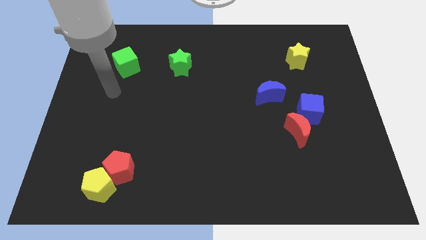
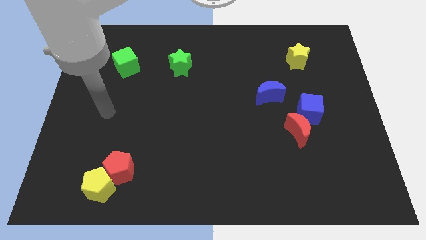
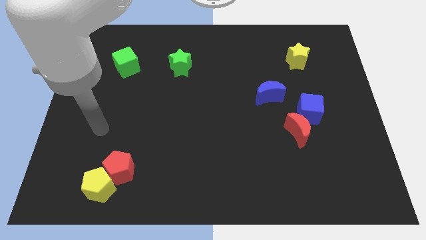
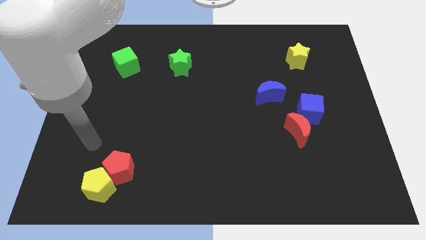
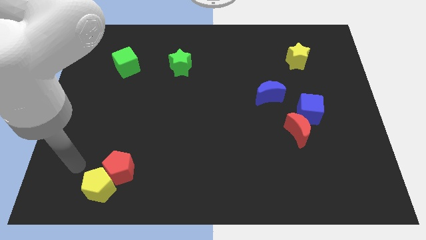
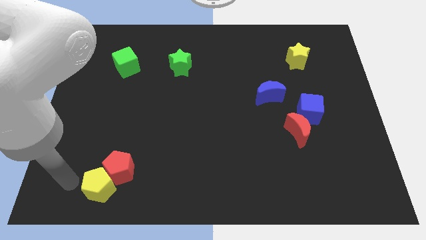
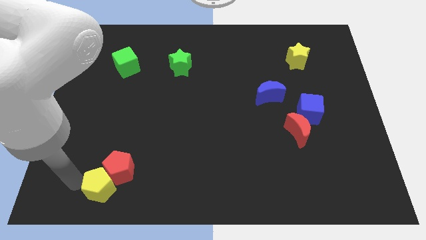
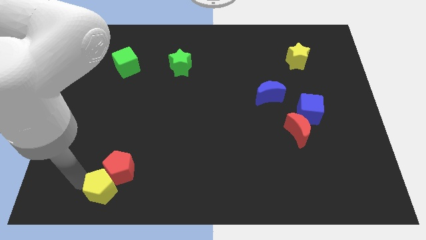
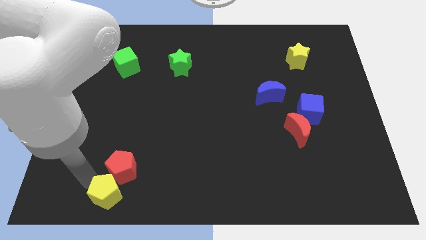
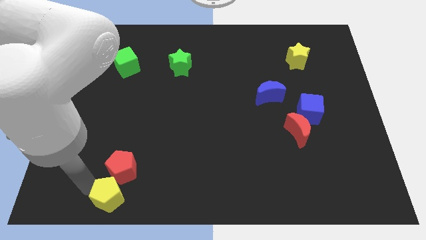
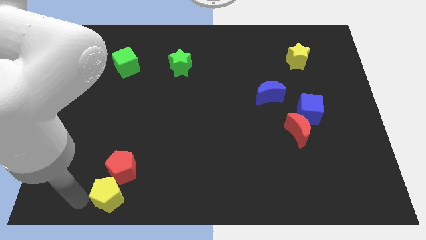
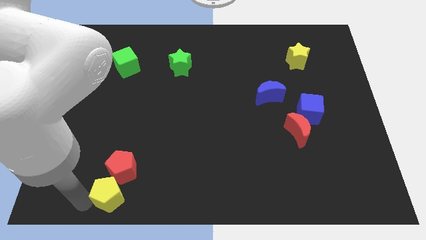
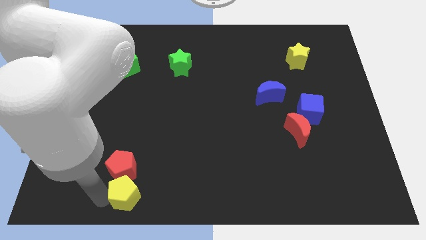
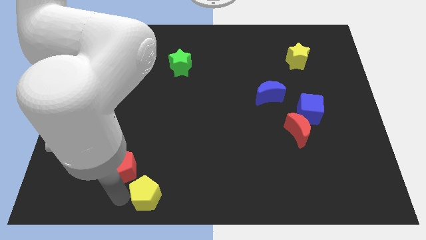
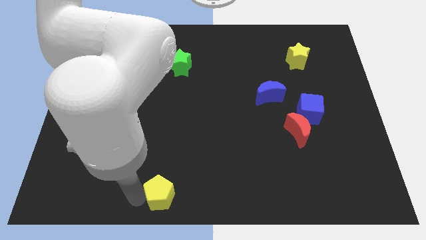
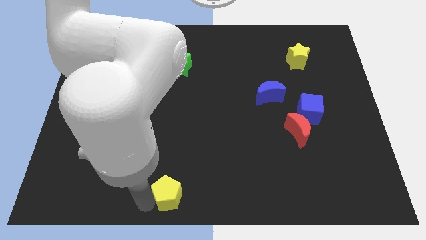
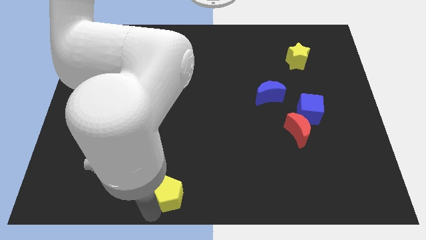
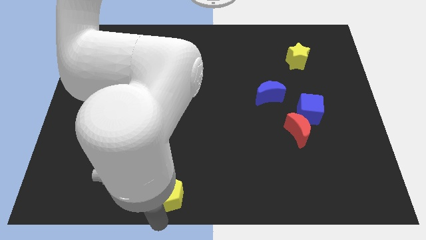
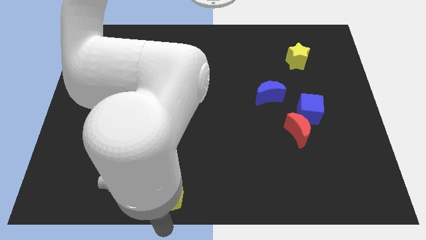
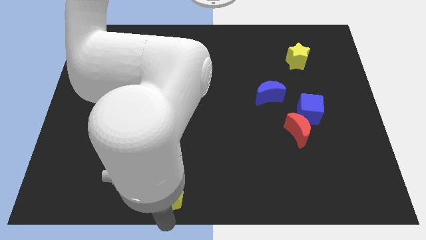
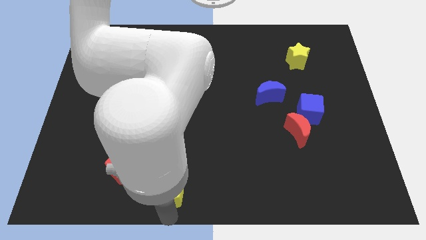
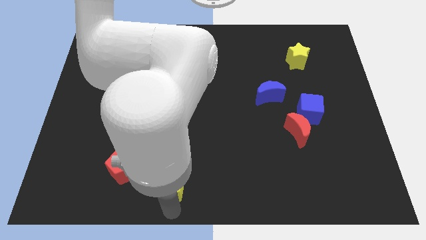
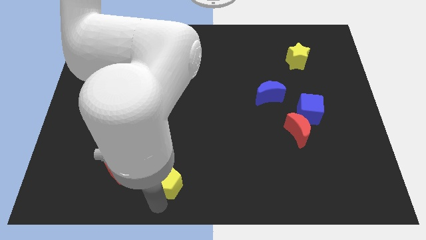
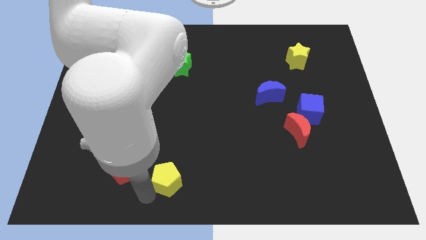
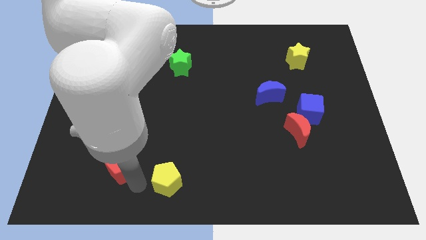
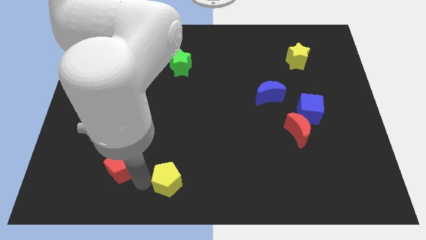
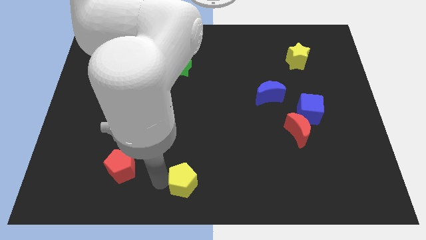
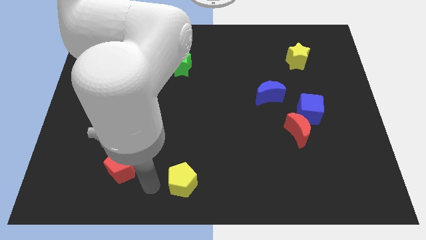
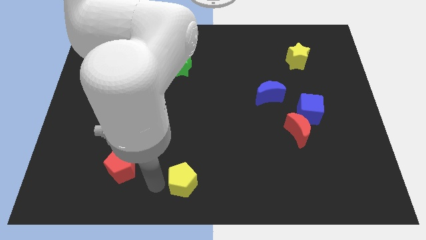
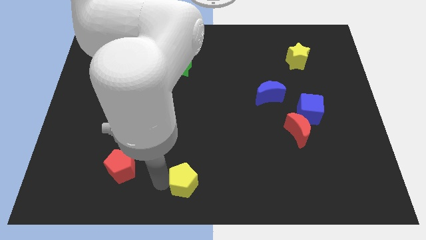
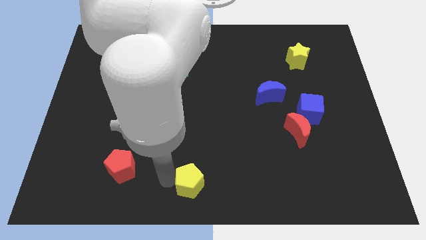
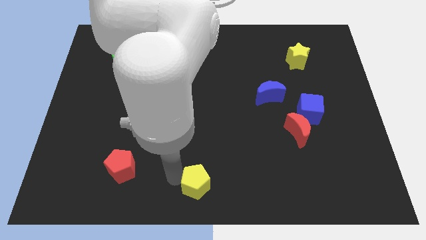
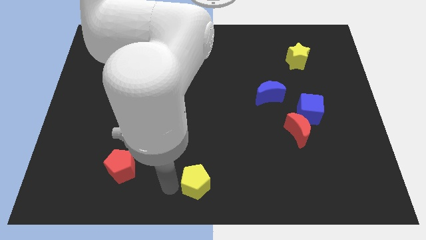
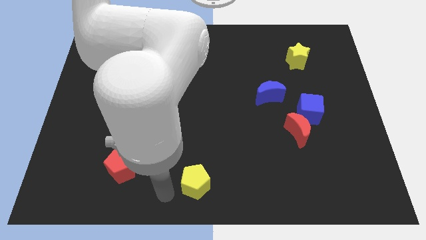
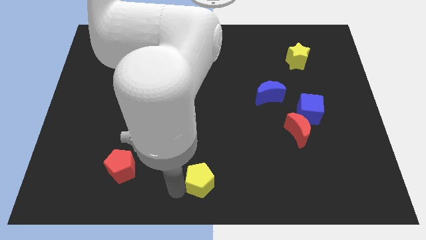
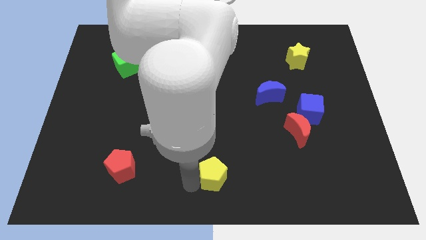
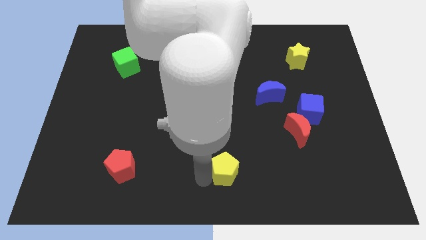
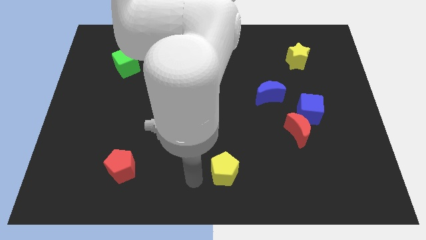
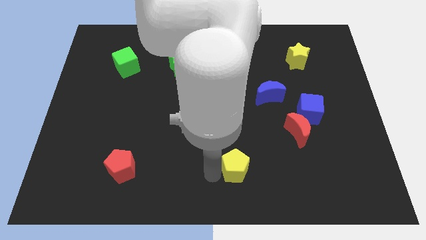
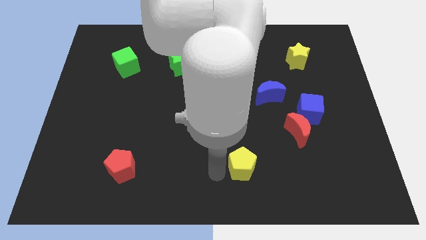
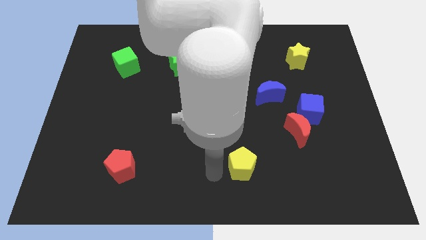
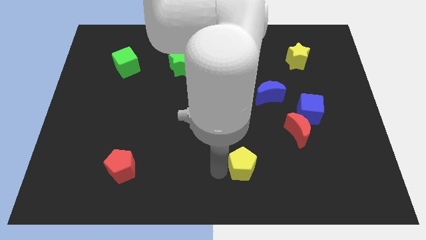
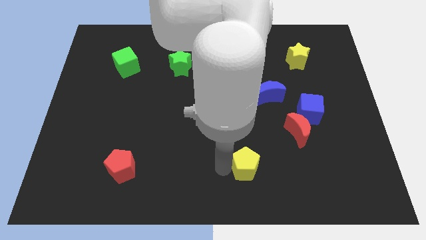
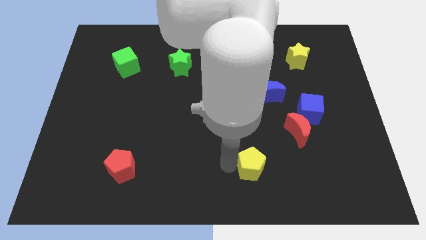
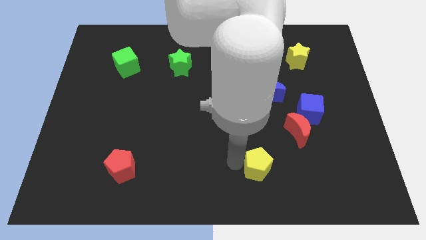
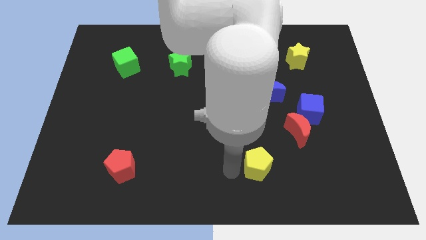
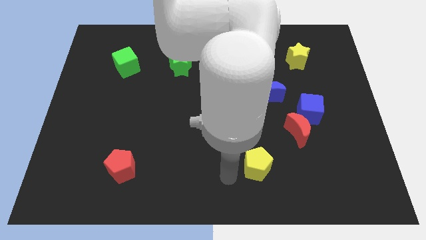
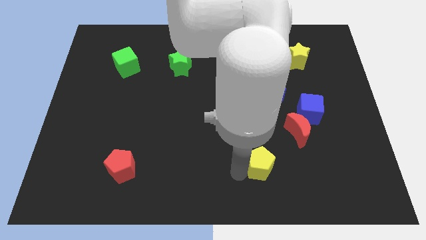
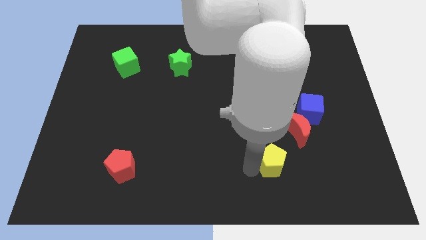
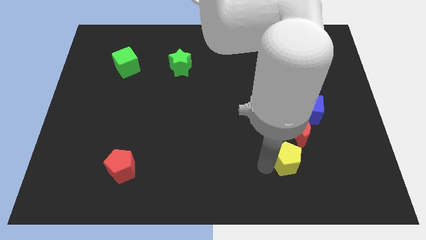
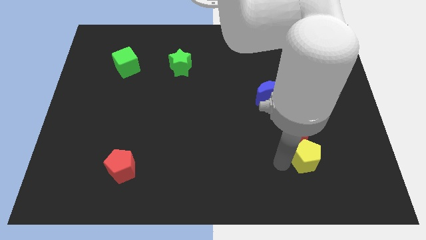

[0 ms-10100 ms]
move the yellow pentagon to the bottom right of the red moon

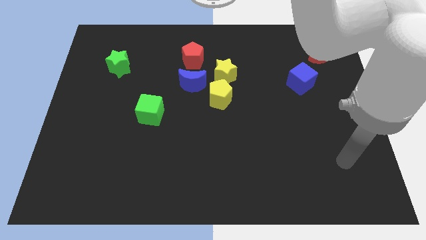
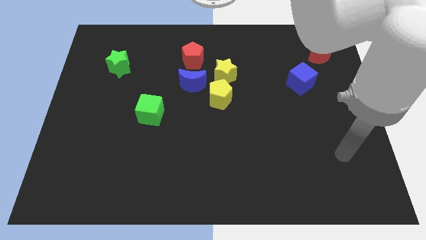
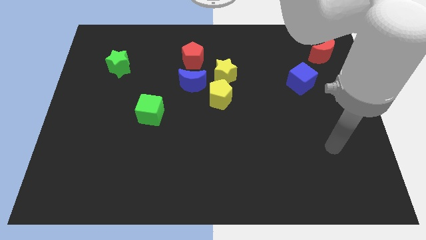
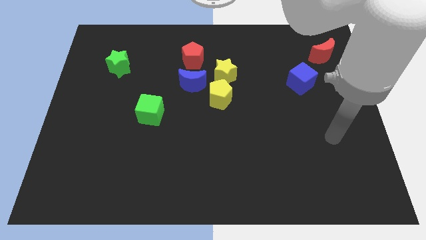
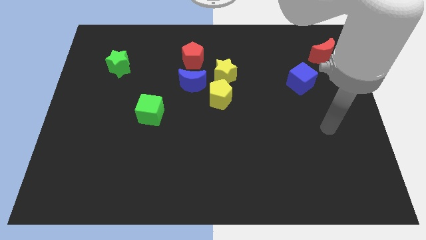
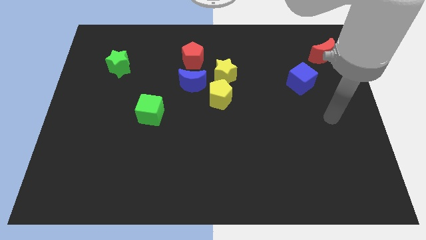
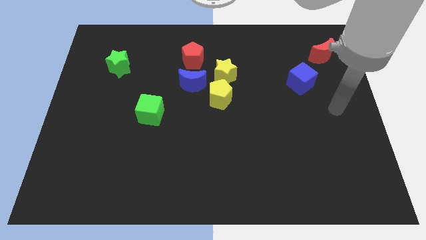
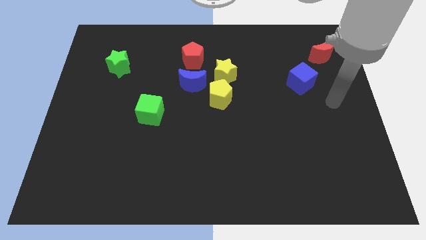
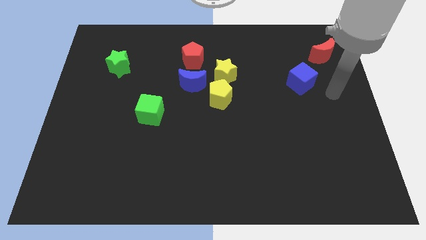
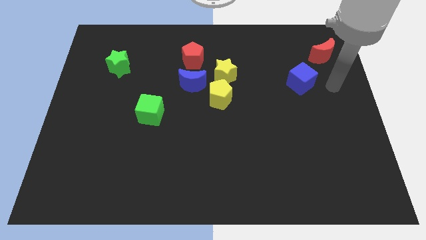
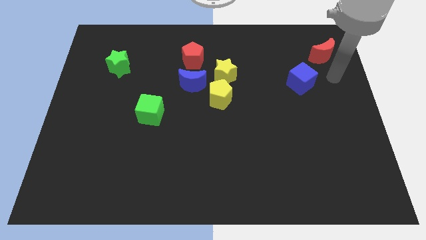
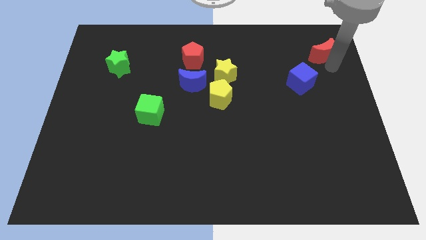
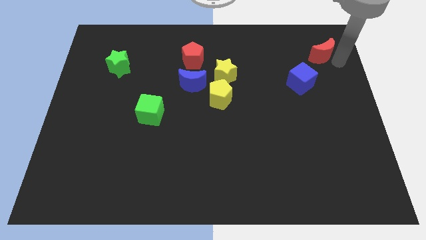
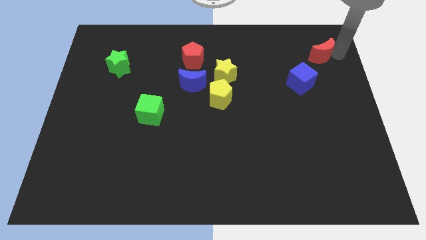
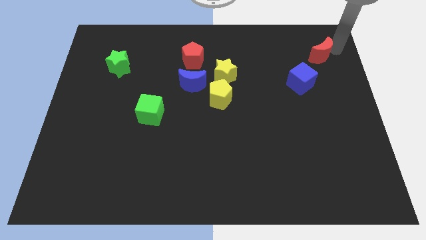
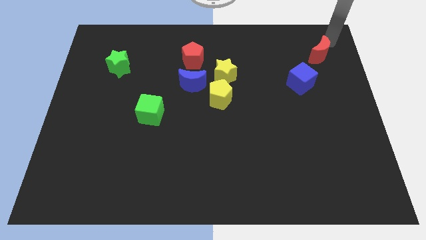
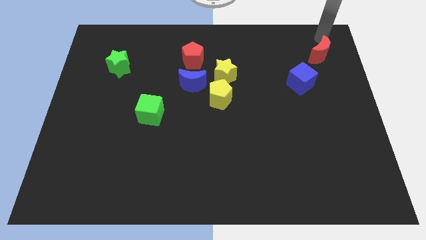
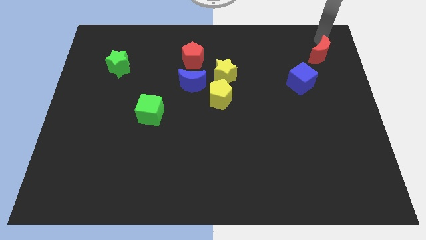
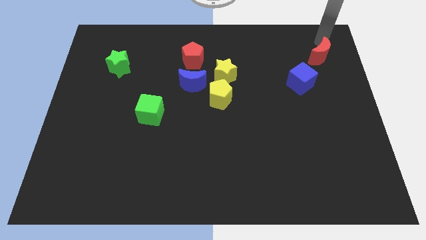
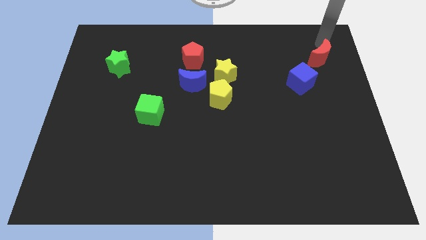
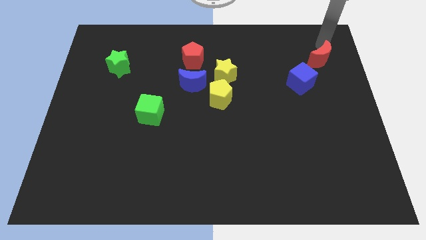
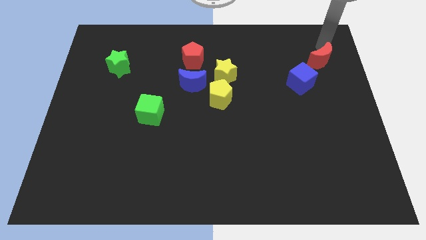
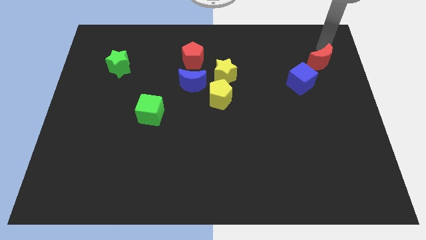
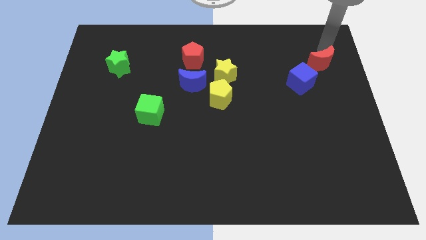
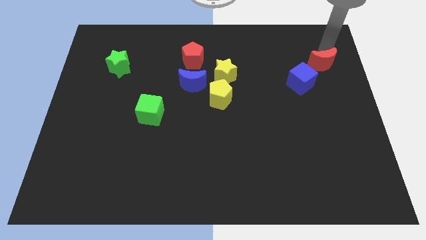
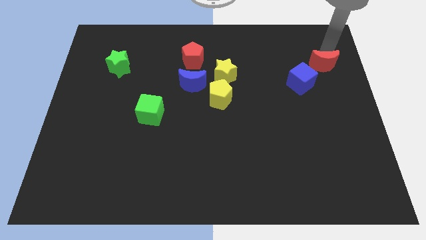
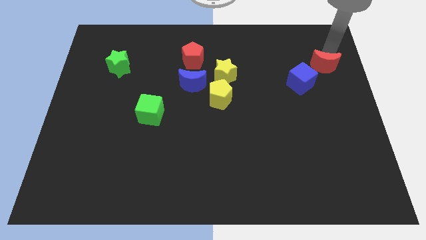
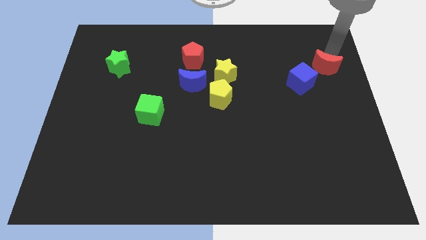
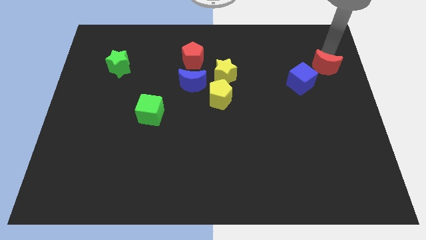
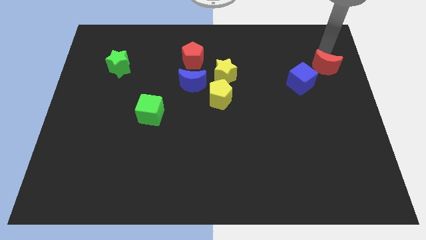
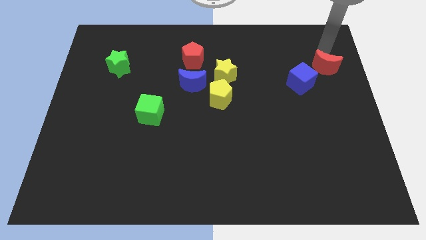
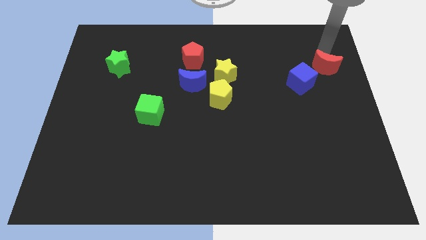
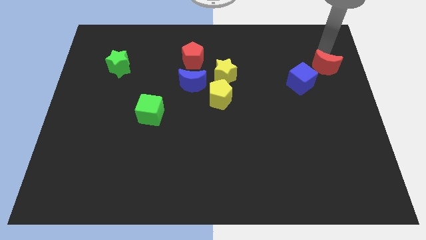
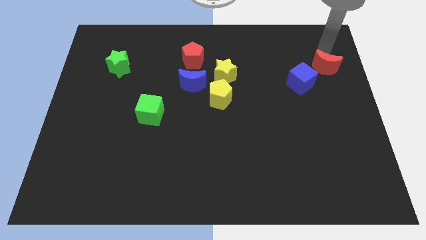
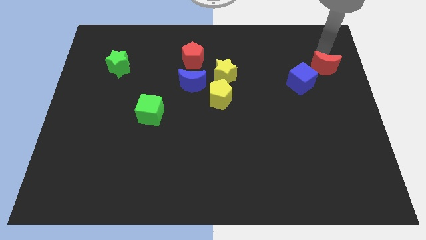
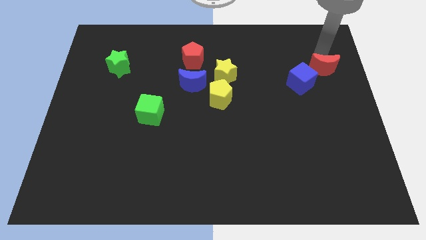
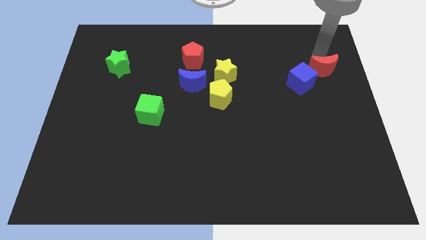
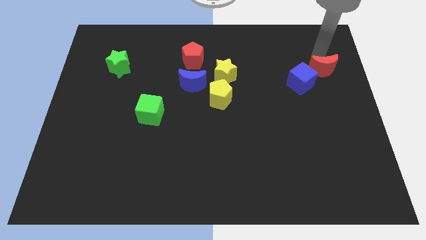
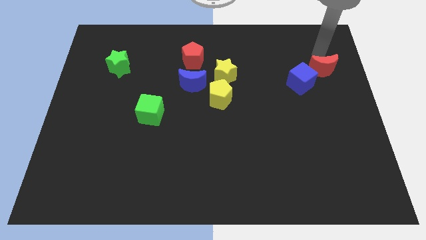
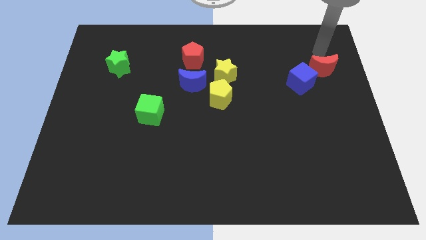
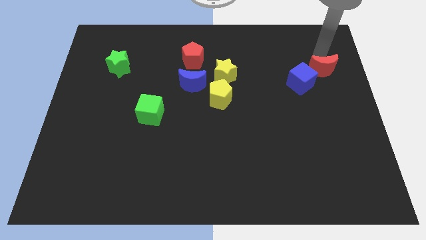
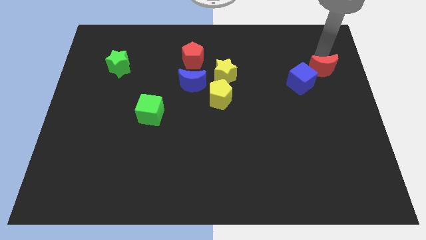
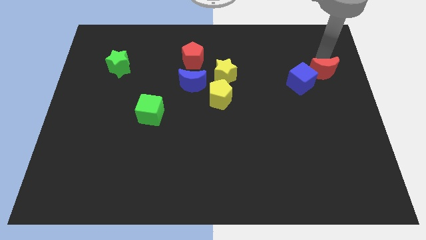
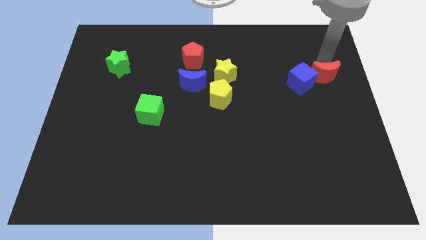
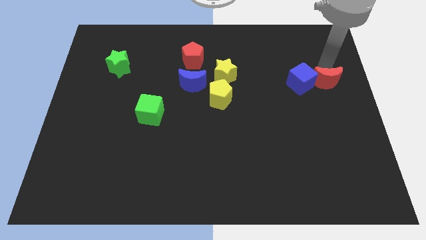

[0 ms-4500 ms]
slide the red moon diagonally down and to the right of the blue cube
